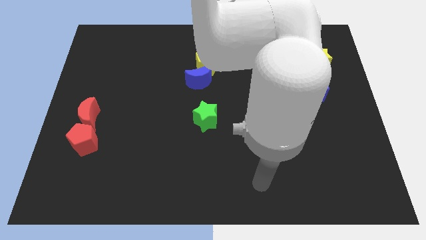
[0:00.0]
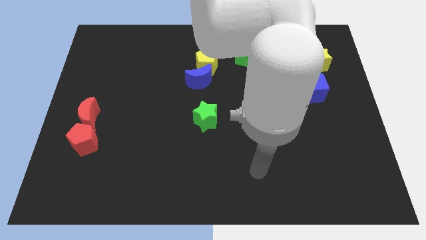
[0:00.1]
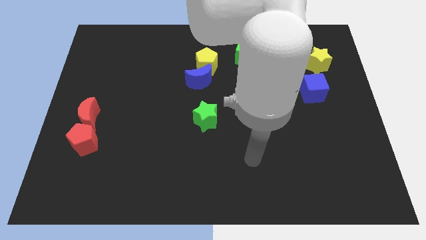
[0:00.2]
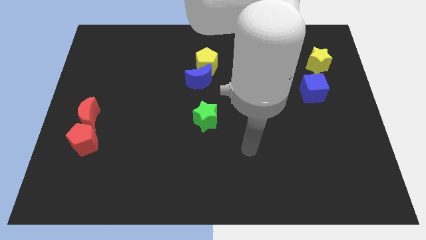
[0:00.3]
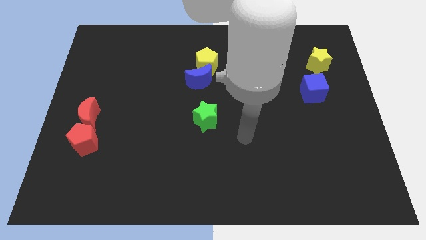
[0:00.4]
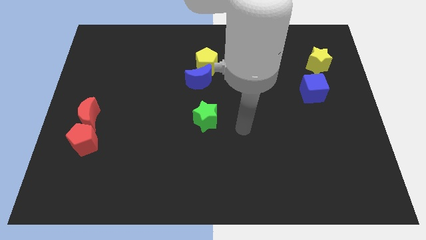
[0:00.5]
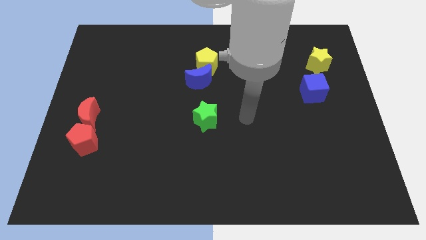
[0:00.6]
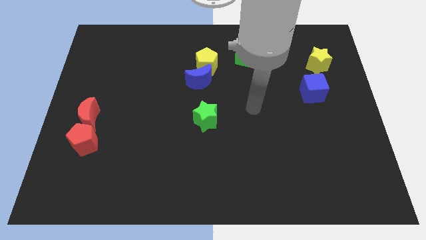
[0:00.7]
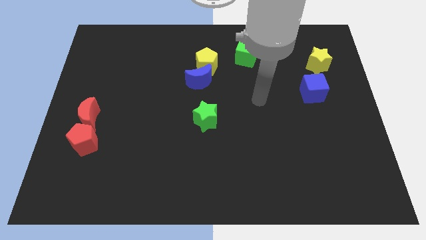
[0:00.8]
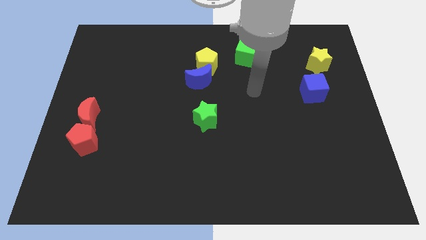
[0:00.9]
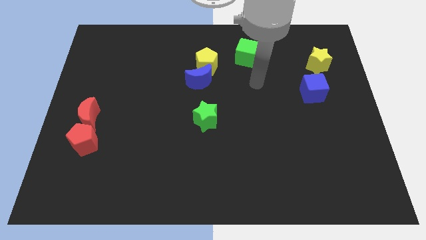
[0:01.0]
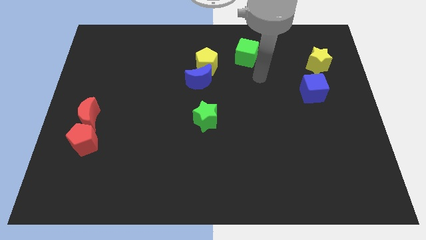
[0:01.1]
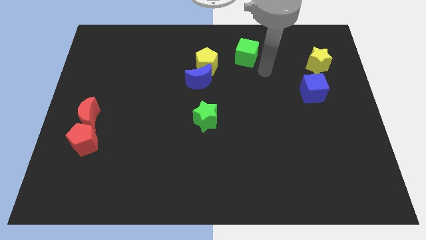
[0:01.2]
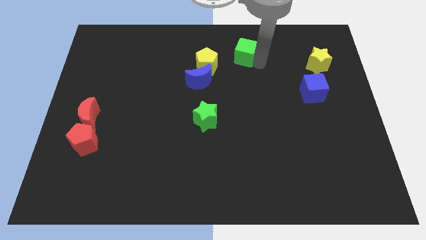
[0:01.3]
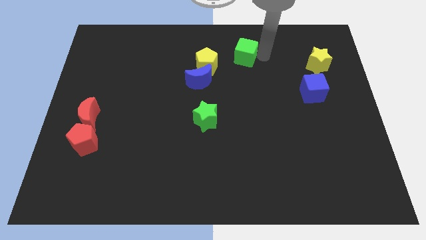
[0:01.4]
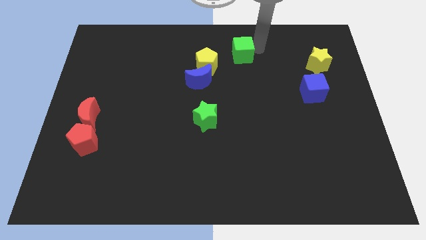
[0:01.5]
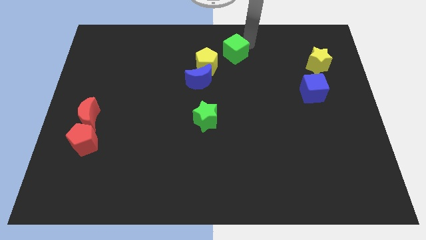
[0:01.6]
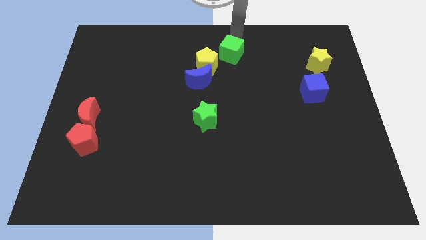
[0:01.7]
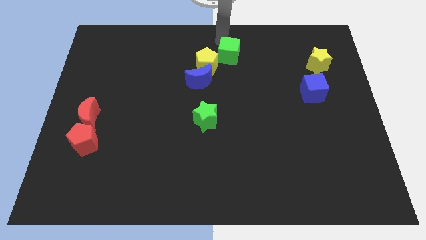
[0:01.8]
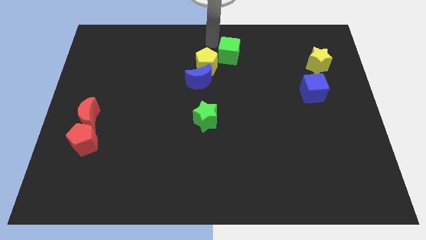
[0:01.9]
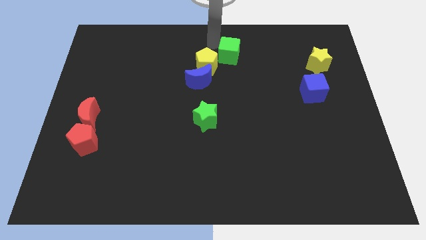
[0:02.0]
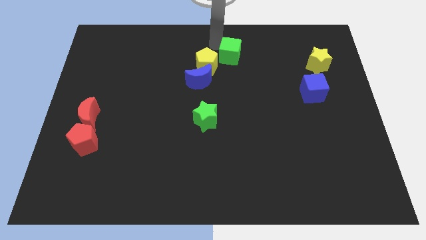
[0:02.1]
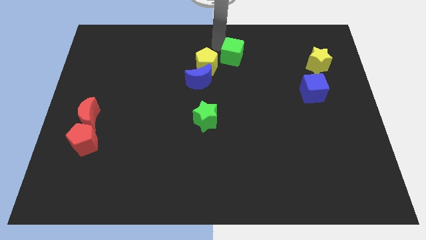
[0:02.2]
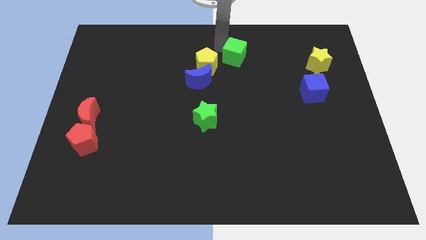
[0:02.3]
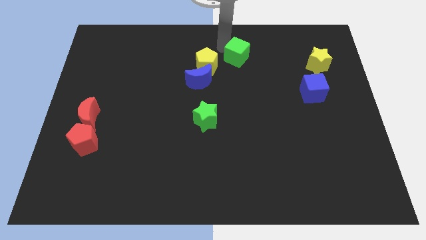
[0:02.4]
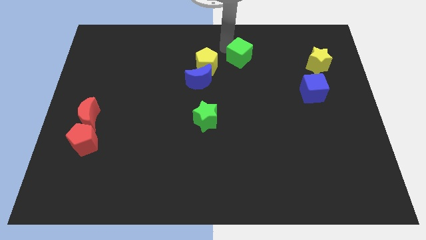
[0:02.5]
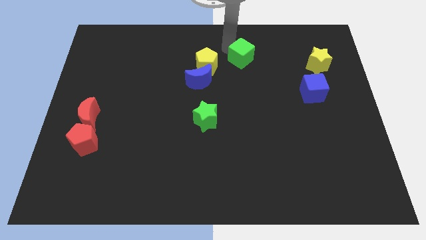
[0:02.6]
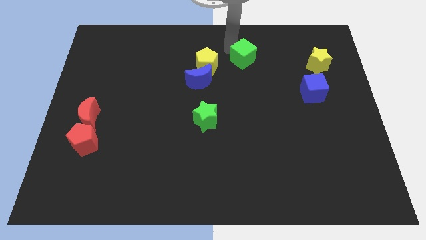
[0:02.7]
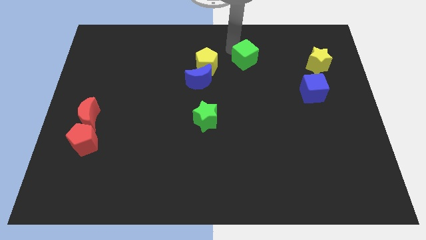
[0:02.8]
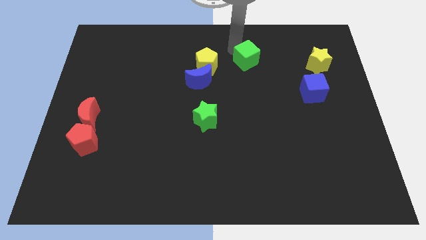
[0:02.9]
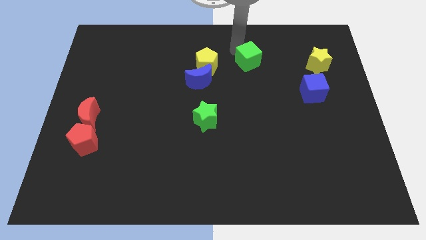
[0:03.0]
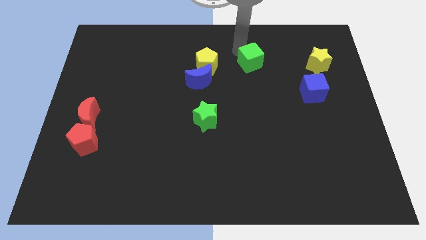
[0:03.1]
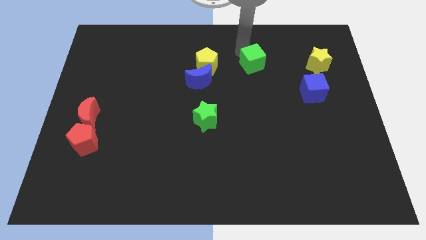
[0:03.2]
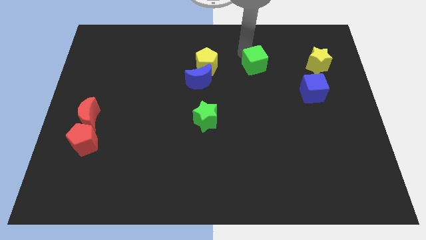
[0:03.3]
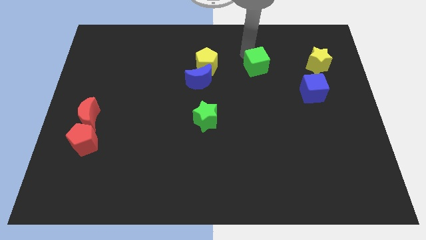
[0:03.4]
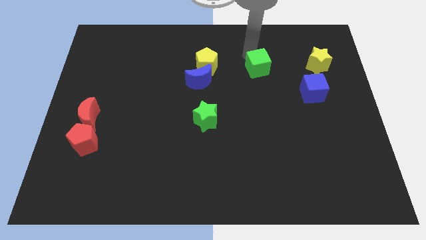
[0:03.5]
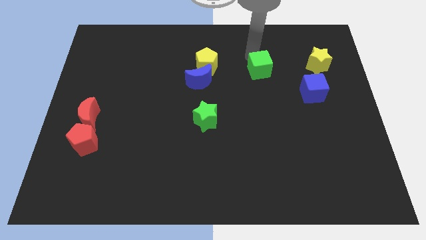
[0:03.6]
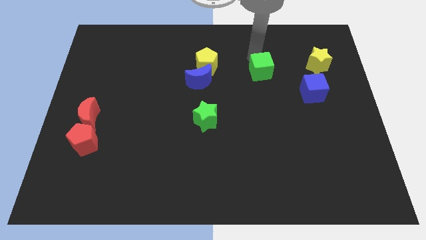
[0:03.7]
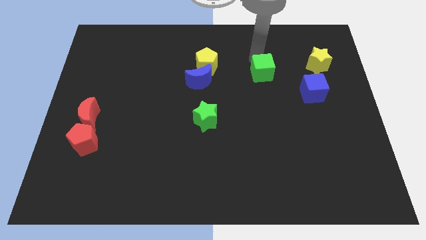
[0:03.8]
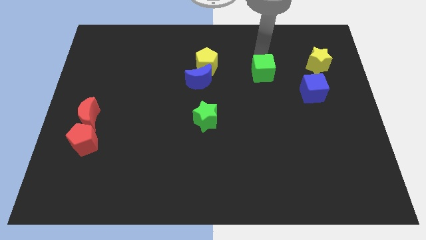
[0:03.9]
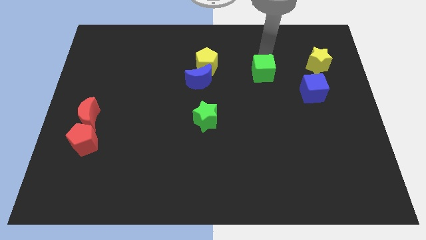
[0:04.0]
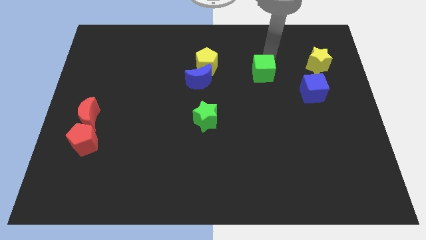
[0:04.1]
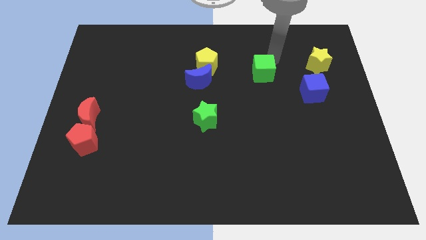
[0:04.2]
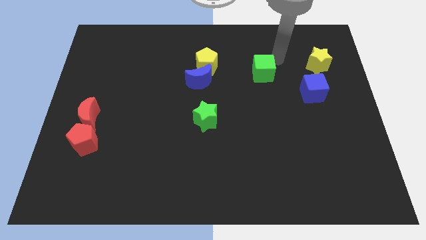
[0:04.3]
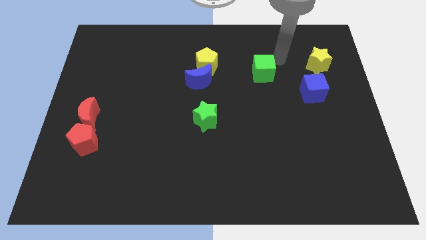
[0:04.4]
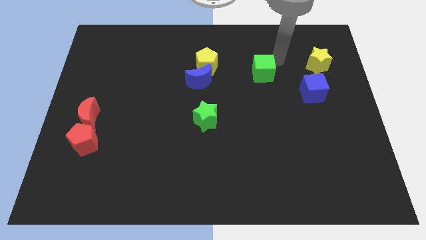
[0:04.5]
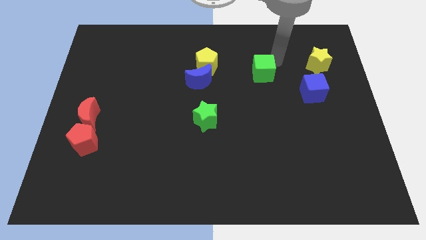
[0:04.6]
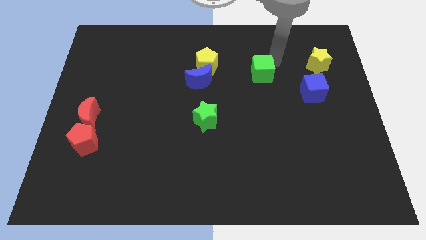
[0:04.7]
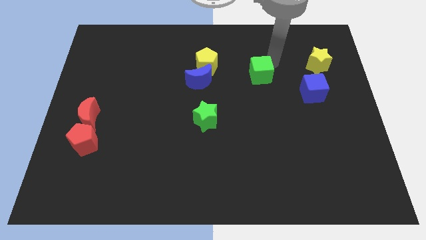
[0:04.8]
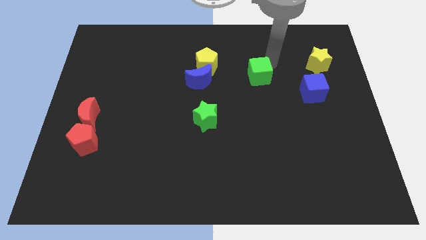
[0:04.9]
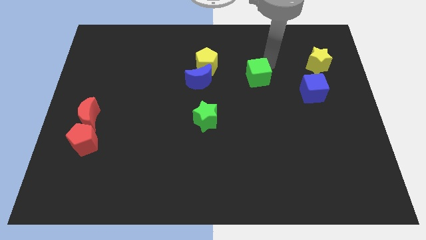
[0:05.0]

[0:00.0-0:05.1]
slide the green cube downwards slightly

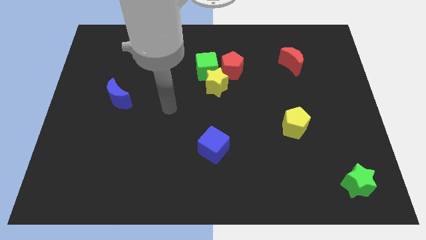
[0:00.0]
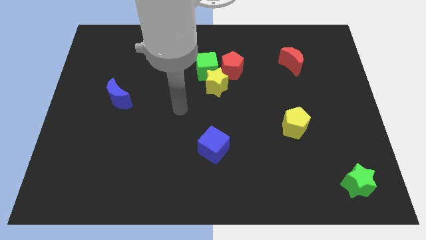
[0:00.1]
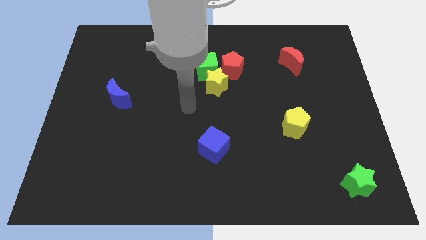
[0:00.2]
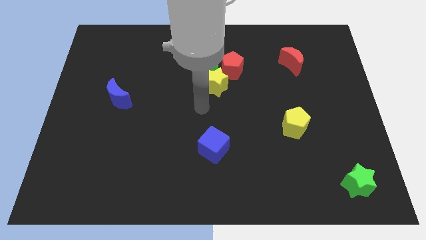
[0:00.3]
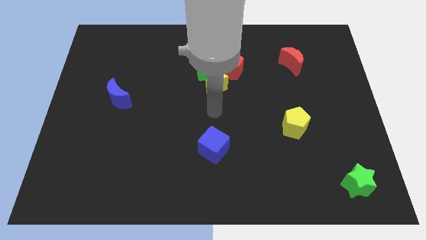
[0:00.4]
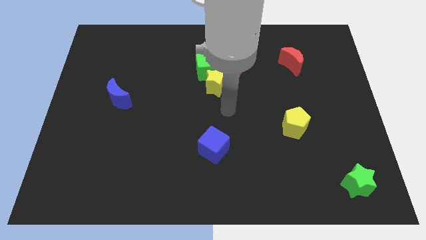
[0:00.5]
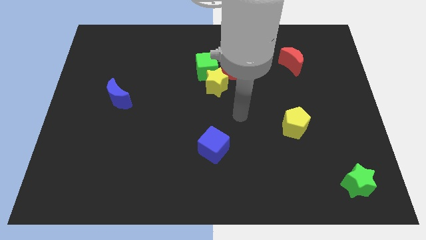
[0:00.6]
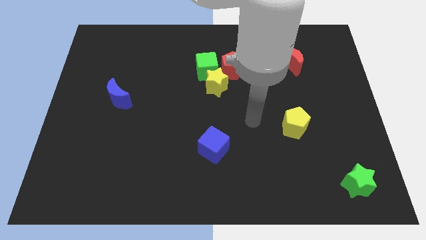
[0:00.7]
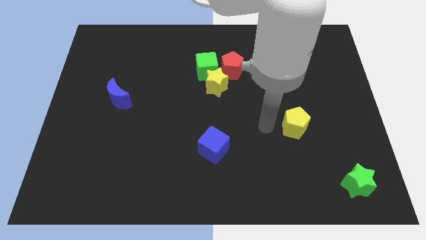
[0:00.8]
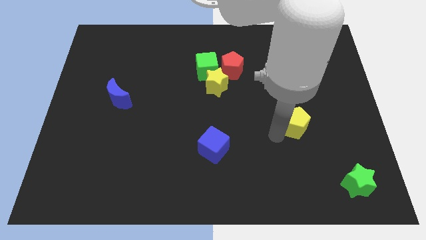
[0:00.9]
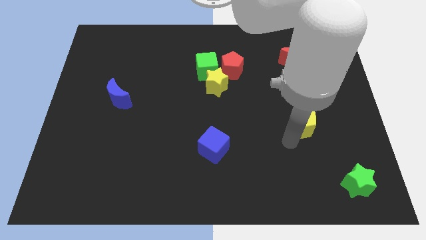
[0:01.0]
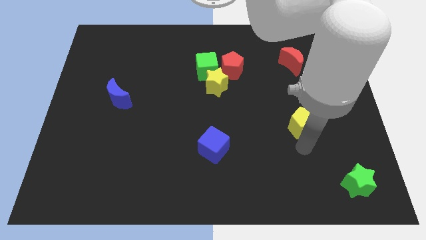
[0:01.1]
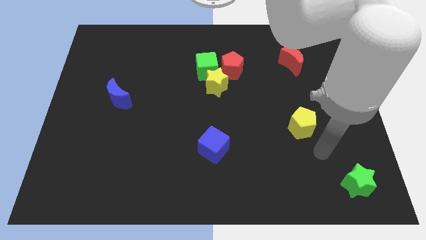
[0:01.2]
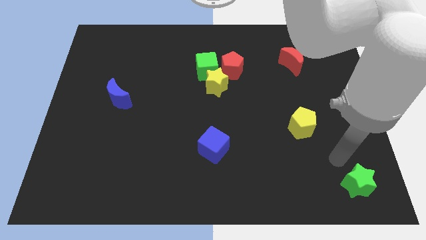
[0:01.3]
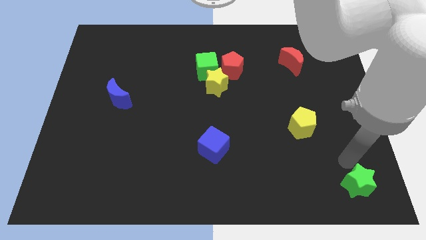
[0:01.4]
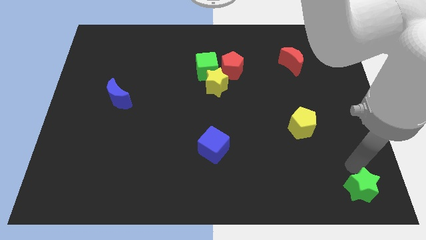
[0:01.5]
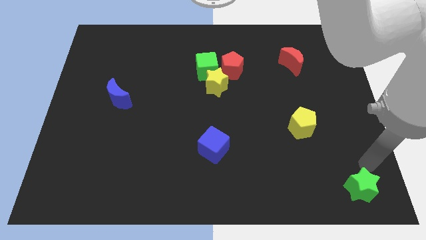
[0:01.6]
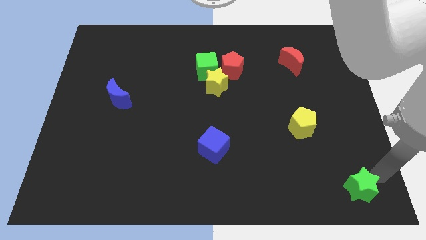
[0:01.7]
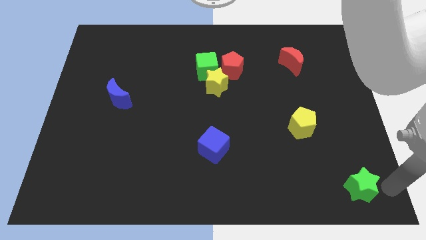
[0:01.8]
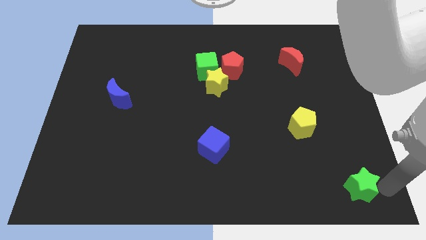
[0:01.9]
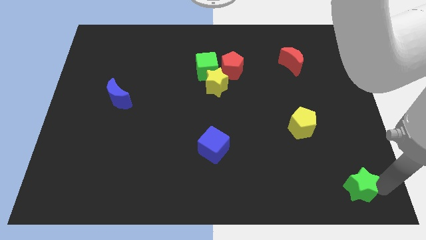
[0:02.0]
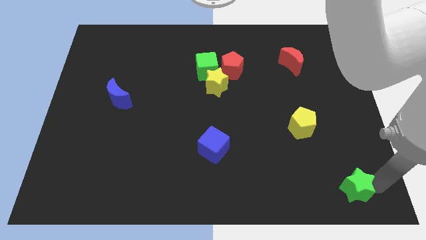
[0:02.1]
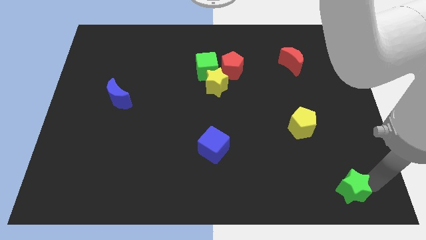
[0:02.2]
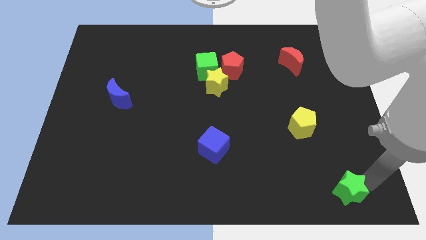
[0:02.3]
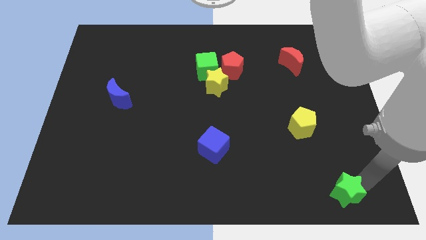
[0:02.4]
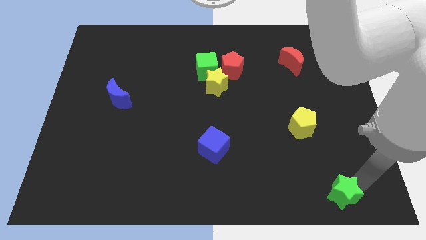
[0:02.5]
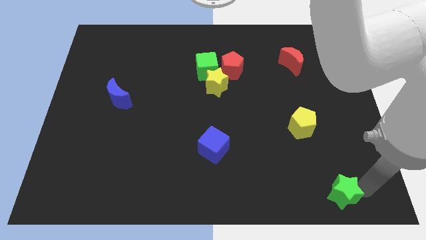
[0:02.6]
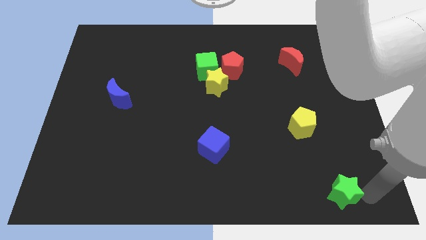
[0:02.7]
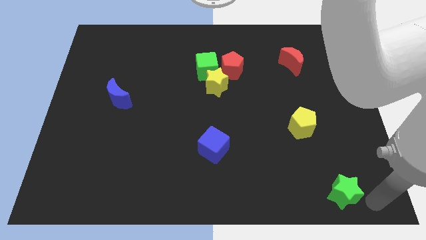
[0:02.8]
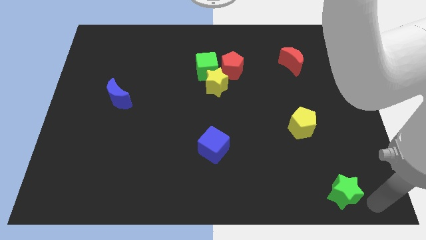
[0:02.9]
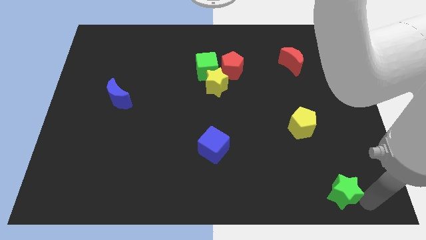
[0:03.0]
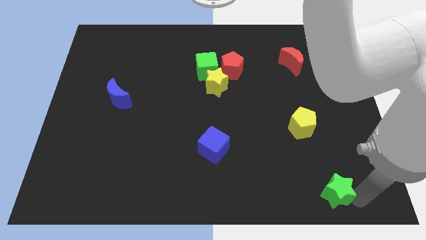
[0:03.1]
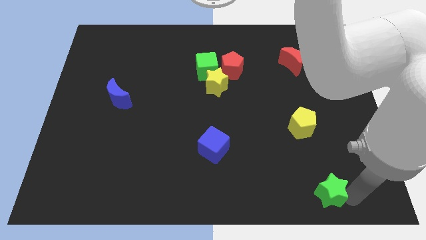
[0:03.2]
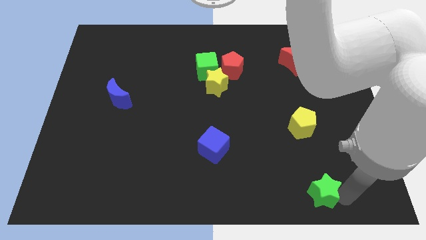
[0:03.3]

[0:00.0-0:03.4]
slide the green star slightly left
